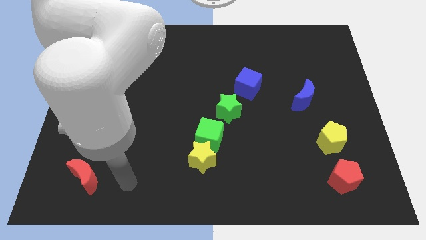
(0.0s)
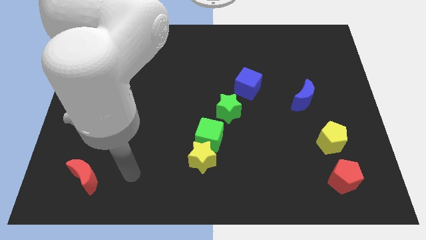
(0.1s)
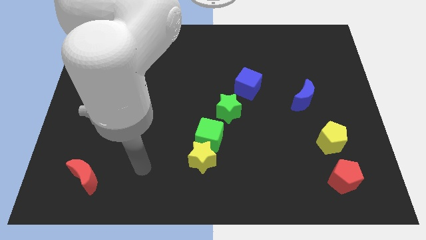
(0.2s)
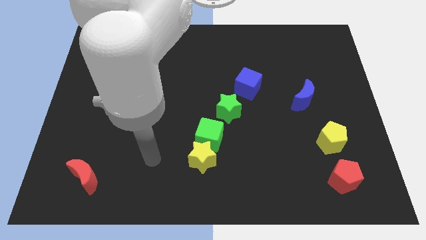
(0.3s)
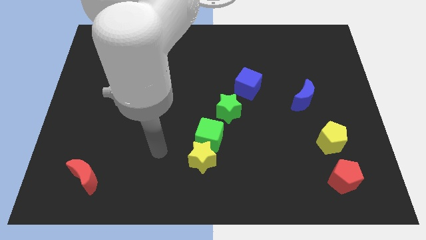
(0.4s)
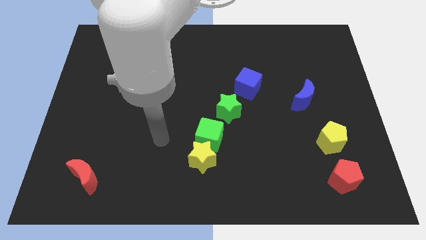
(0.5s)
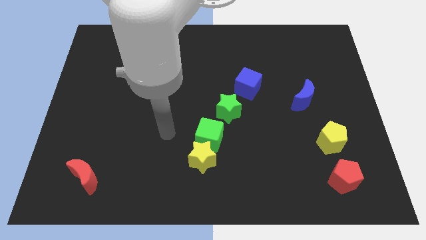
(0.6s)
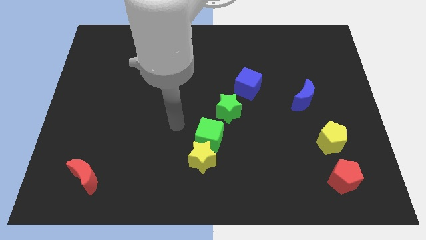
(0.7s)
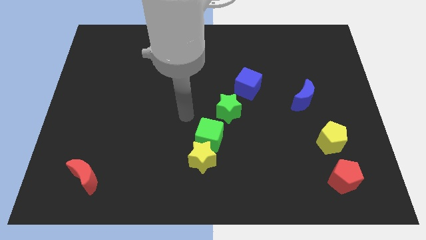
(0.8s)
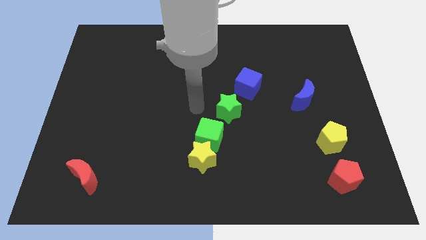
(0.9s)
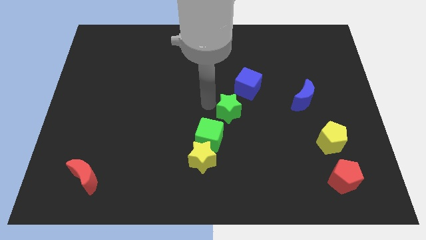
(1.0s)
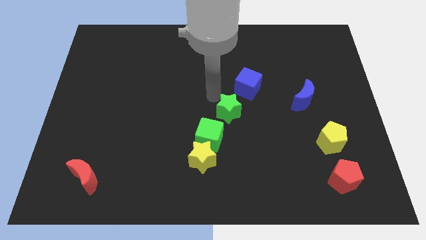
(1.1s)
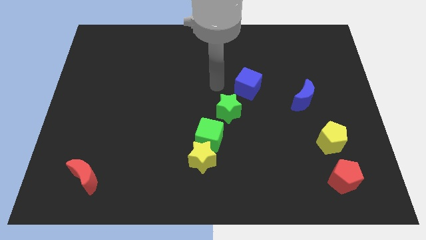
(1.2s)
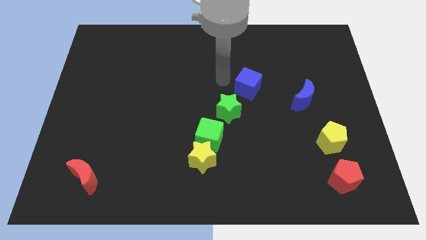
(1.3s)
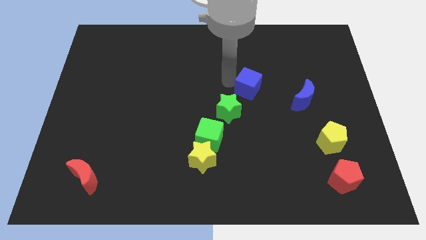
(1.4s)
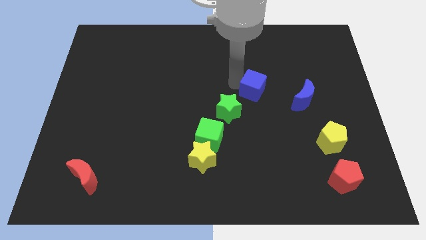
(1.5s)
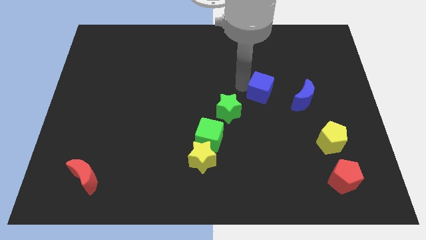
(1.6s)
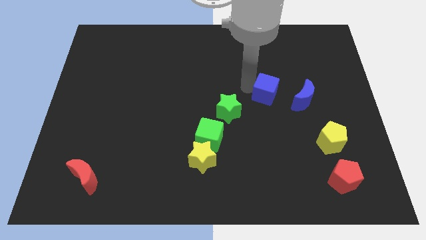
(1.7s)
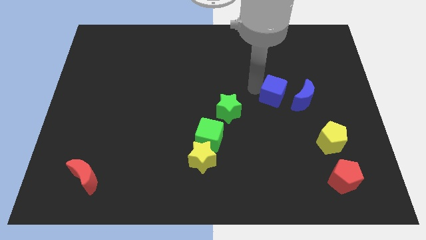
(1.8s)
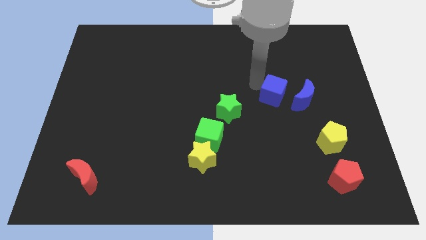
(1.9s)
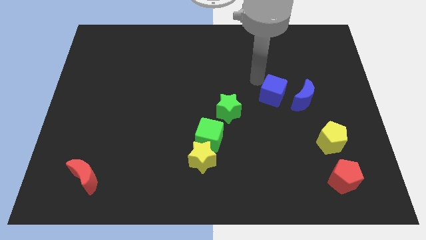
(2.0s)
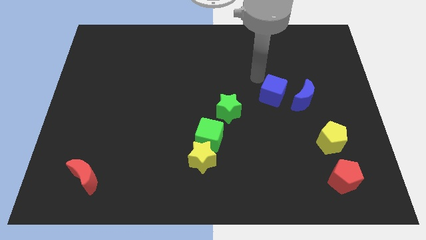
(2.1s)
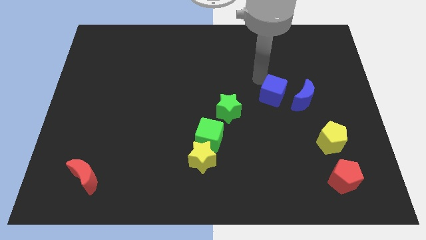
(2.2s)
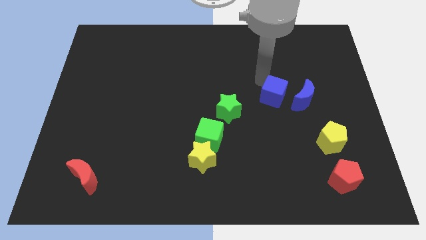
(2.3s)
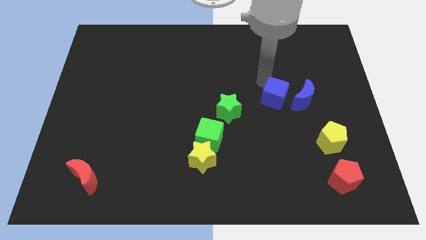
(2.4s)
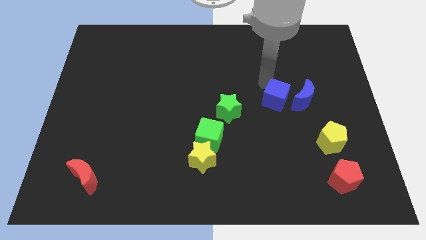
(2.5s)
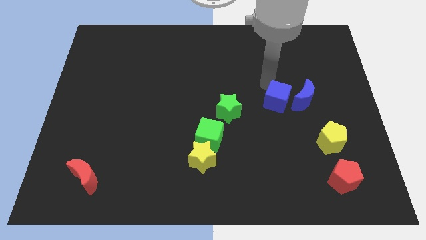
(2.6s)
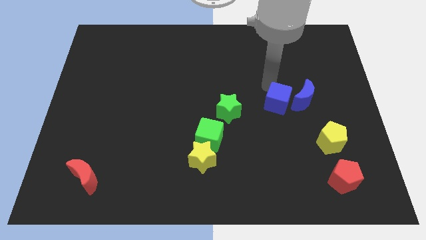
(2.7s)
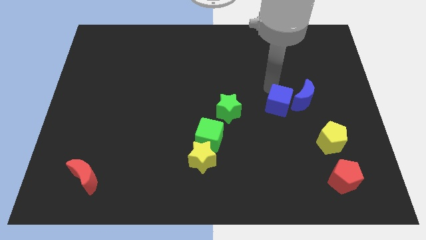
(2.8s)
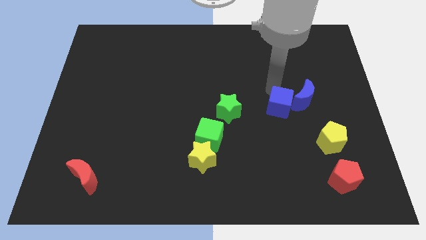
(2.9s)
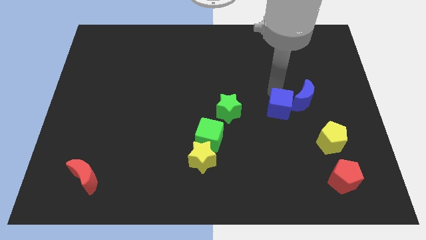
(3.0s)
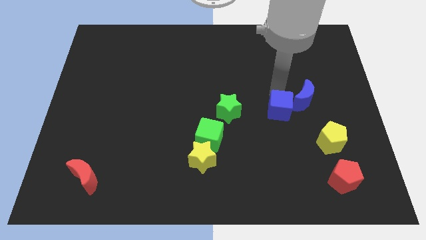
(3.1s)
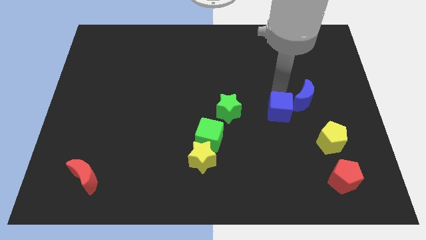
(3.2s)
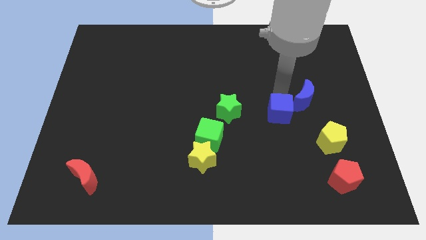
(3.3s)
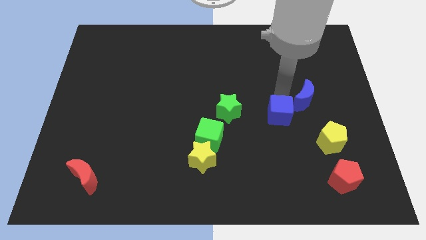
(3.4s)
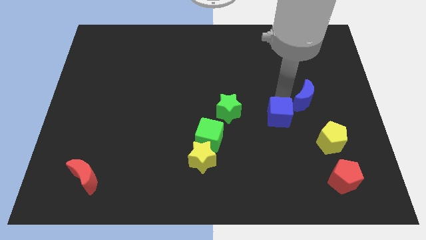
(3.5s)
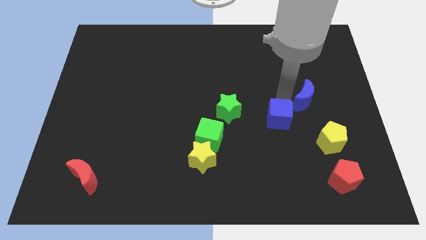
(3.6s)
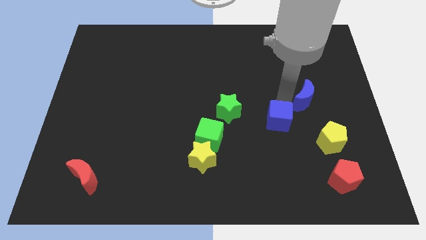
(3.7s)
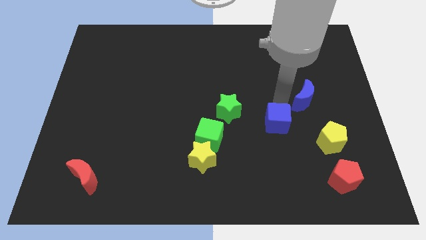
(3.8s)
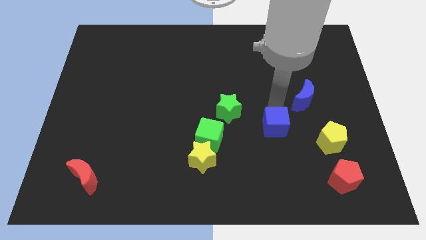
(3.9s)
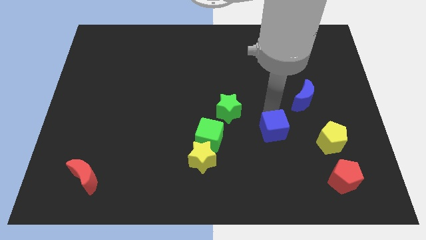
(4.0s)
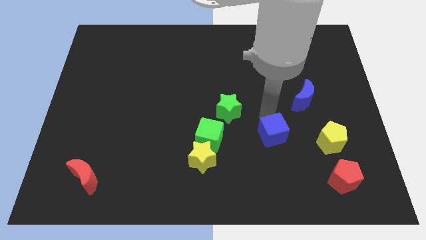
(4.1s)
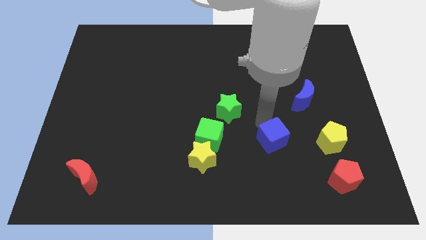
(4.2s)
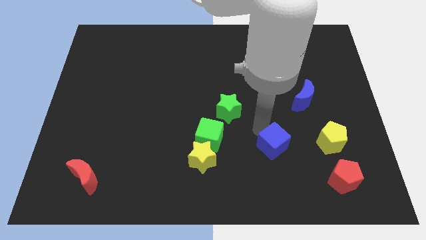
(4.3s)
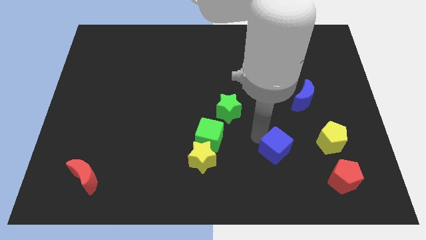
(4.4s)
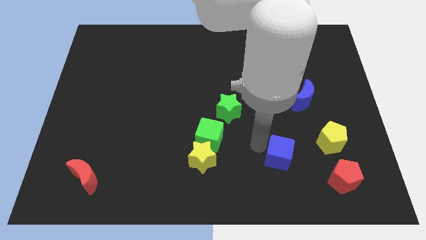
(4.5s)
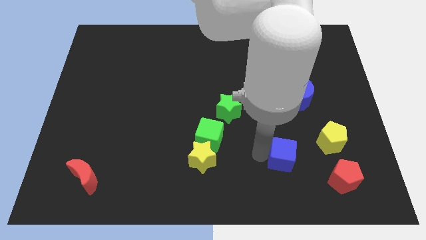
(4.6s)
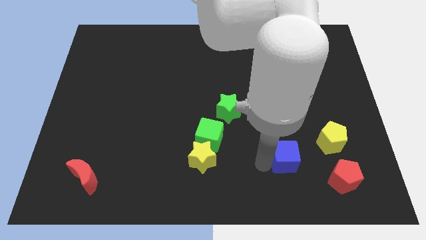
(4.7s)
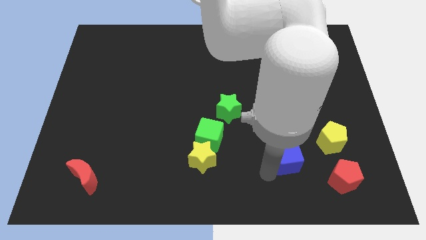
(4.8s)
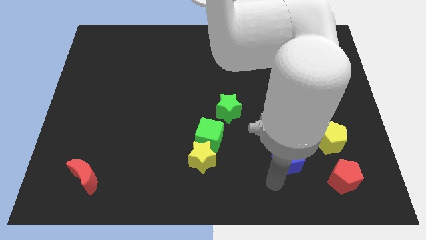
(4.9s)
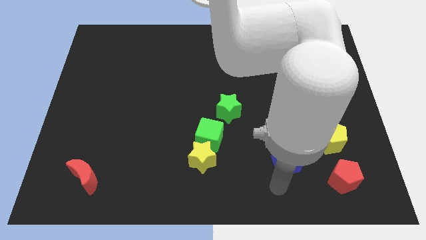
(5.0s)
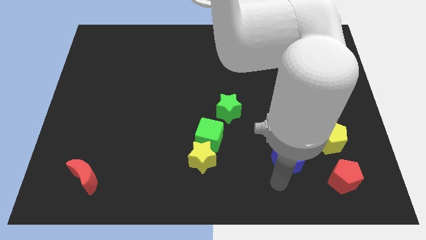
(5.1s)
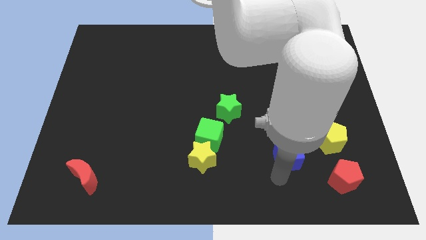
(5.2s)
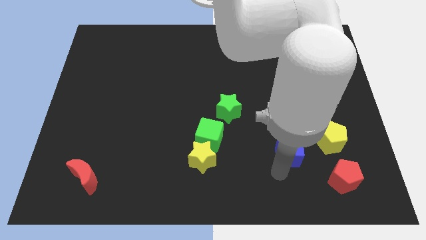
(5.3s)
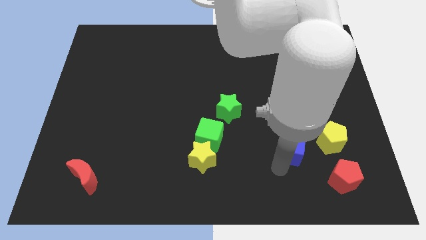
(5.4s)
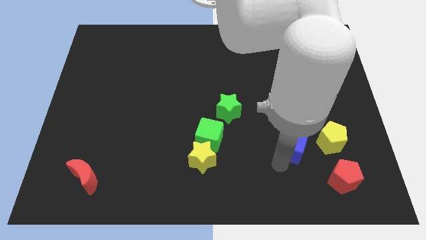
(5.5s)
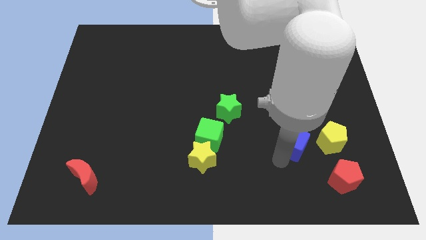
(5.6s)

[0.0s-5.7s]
put the blue cube to the bottom side of the blue moon

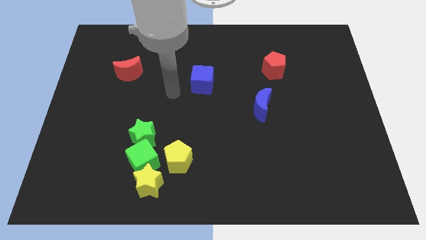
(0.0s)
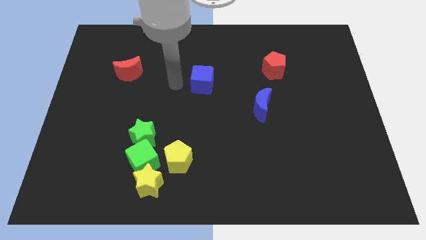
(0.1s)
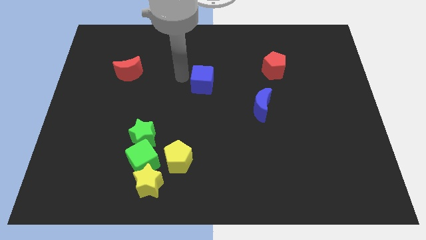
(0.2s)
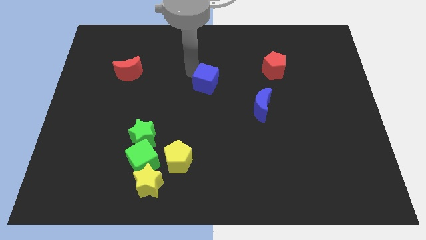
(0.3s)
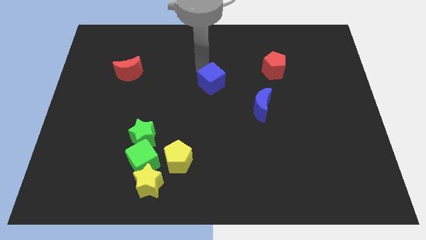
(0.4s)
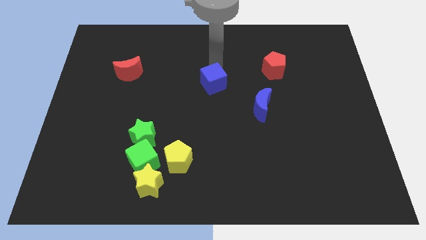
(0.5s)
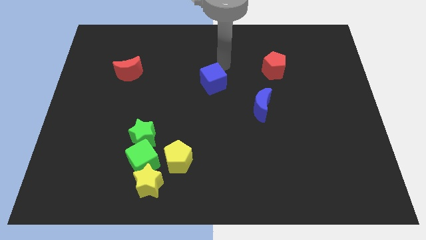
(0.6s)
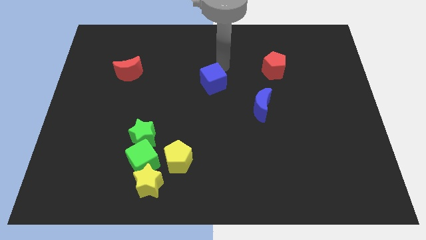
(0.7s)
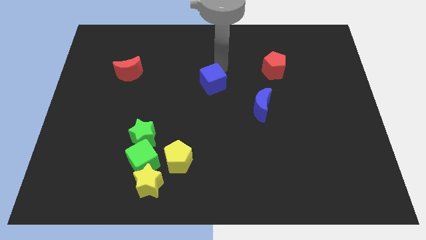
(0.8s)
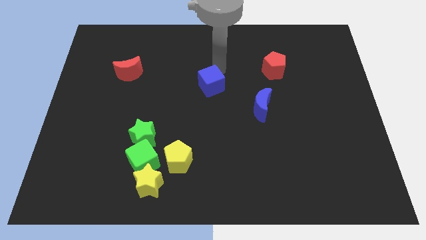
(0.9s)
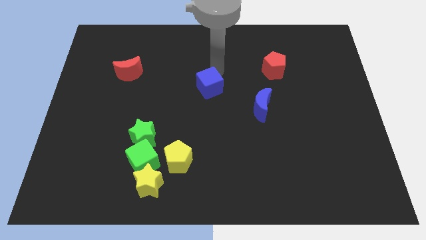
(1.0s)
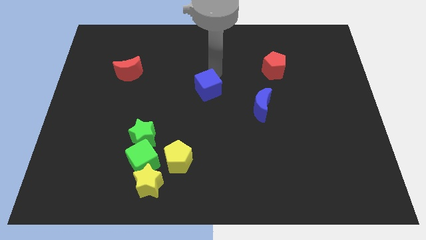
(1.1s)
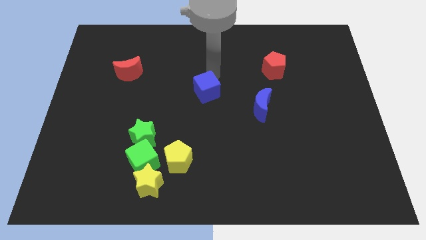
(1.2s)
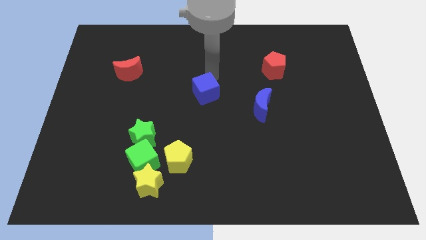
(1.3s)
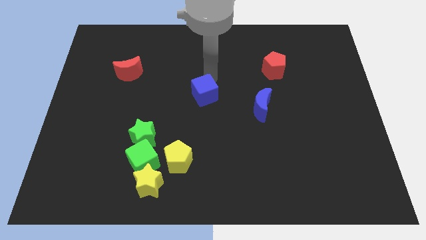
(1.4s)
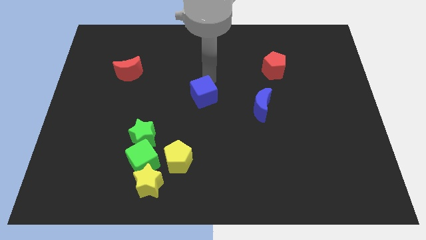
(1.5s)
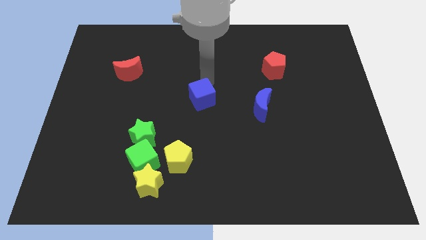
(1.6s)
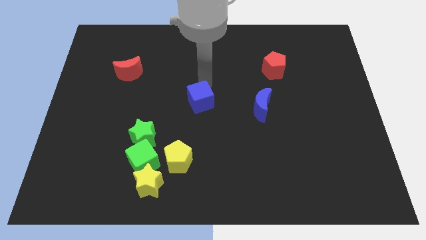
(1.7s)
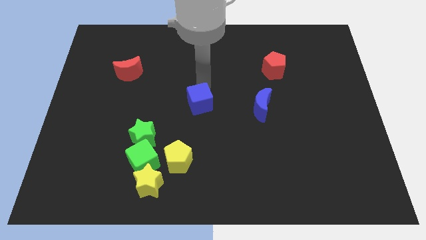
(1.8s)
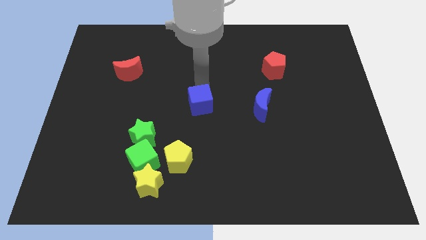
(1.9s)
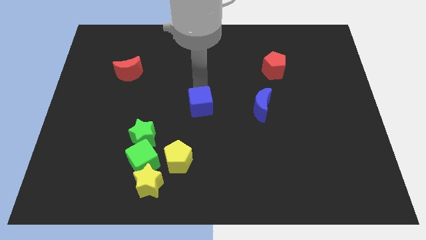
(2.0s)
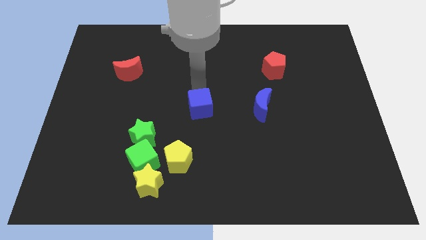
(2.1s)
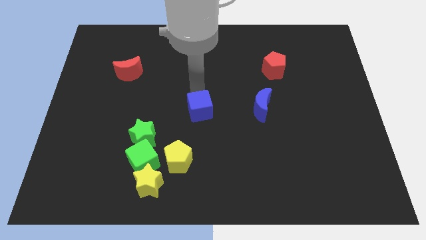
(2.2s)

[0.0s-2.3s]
slide the blue cube to the top side of the yellow pentagon
